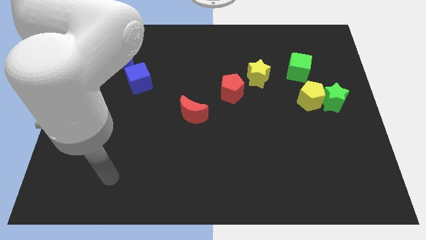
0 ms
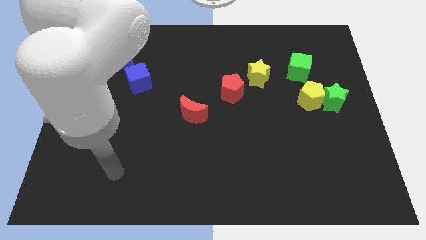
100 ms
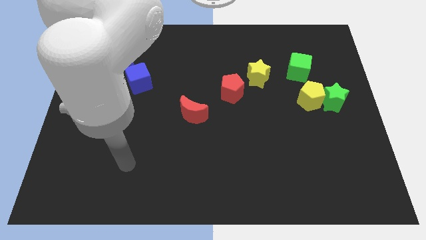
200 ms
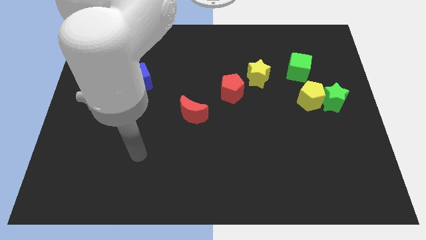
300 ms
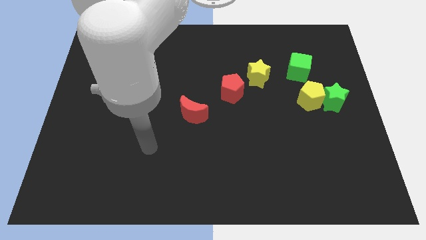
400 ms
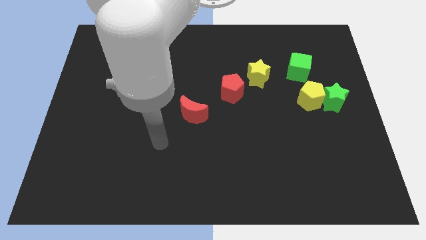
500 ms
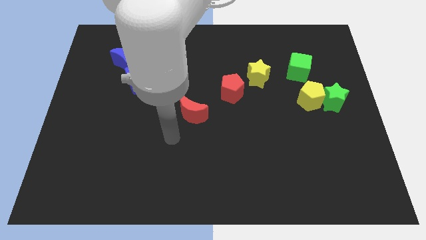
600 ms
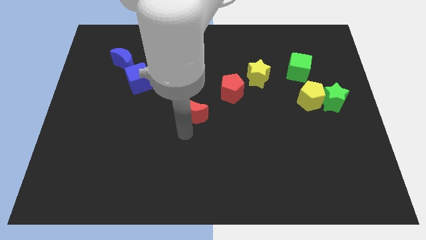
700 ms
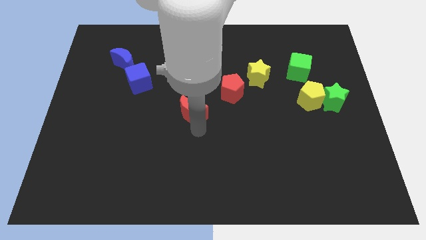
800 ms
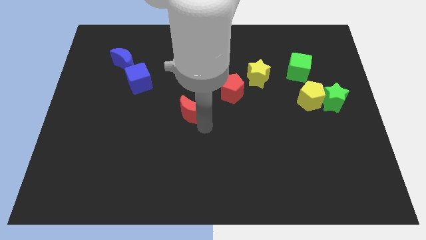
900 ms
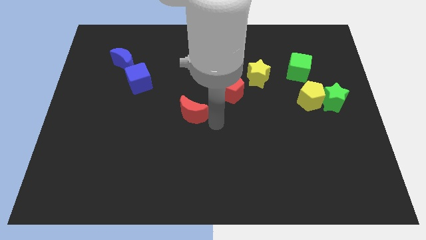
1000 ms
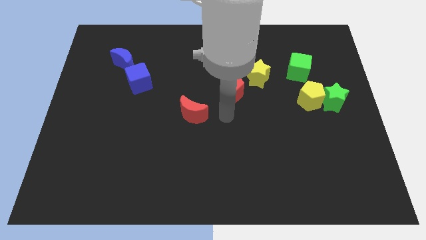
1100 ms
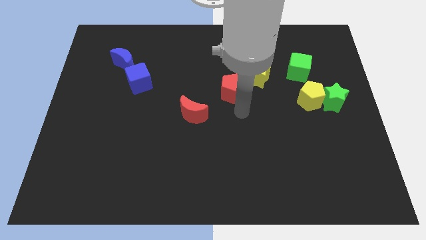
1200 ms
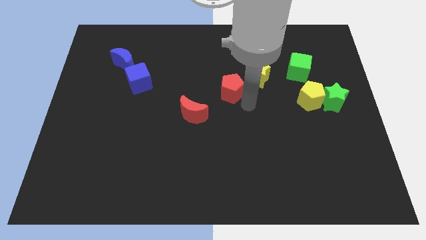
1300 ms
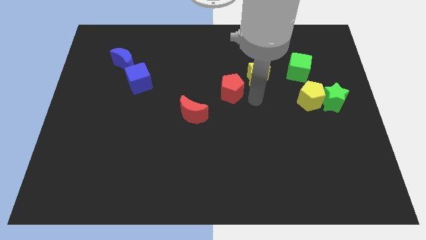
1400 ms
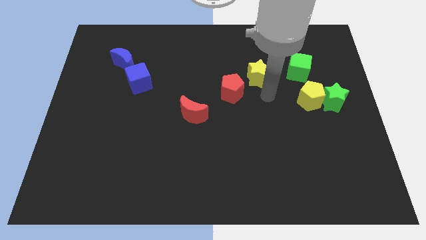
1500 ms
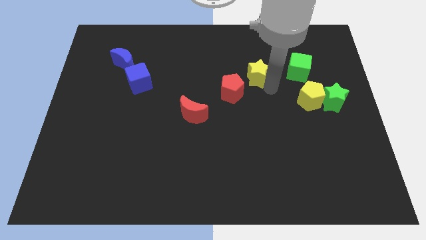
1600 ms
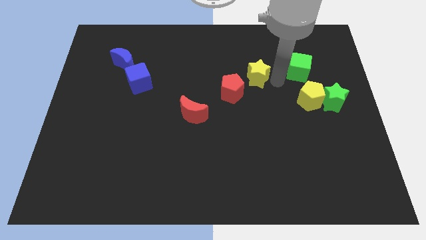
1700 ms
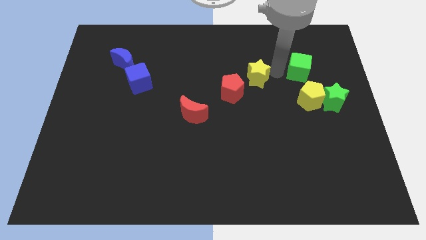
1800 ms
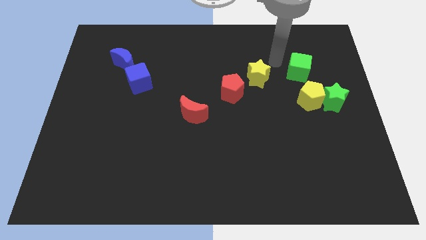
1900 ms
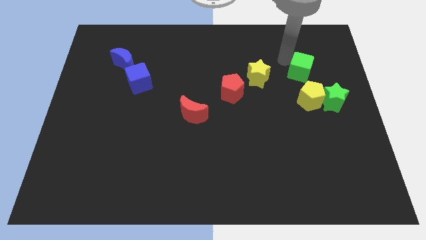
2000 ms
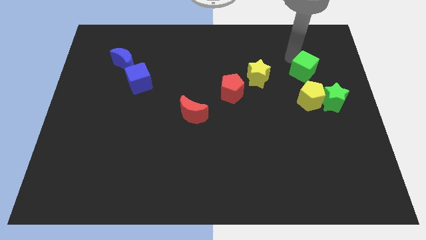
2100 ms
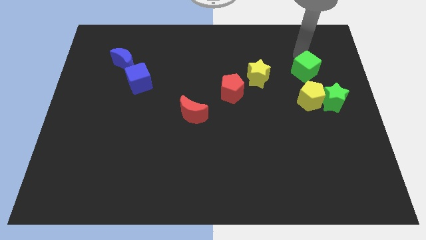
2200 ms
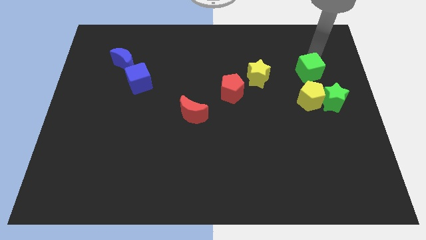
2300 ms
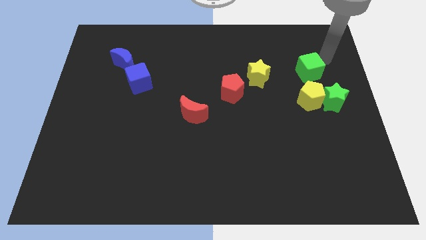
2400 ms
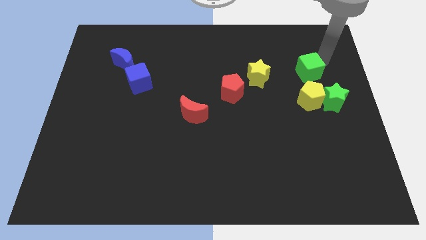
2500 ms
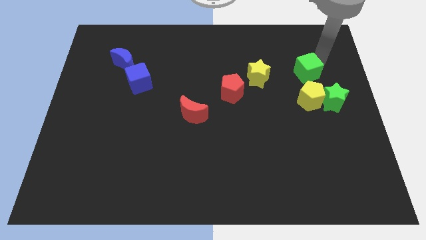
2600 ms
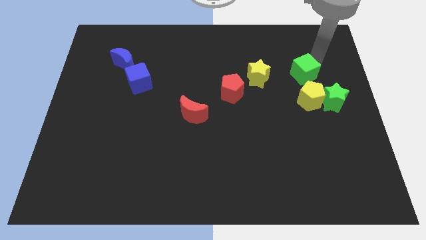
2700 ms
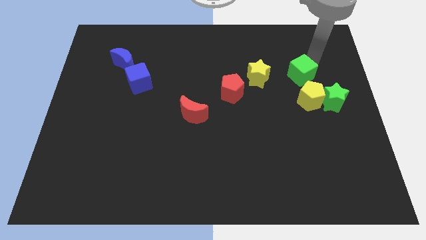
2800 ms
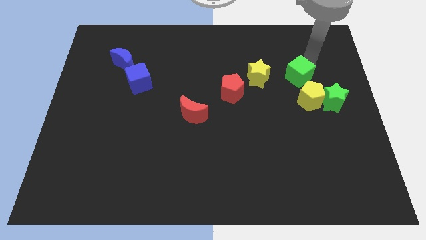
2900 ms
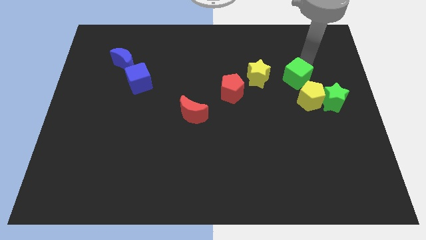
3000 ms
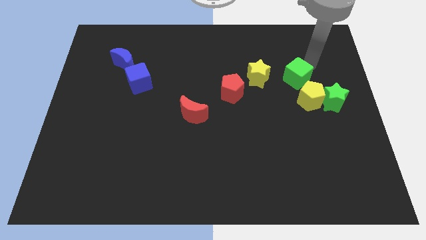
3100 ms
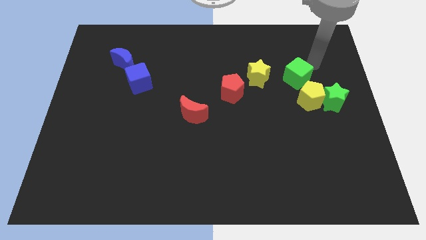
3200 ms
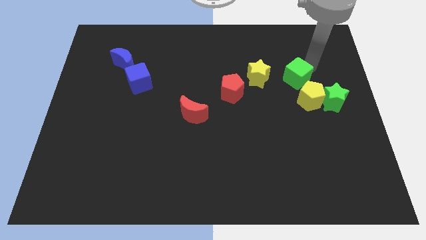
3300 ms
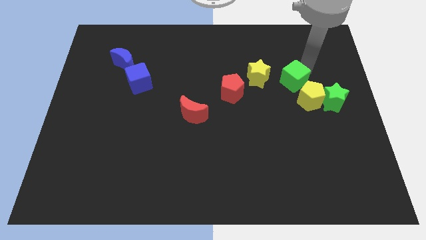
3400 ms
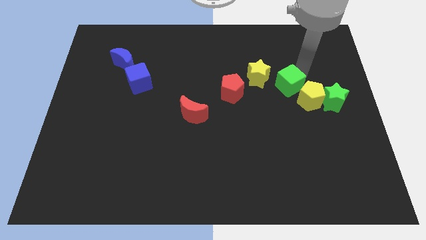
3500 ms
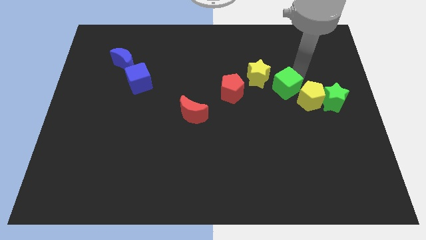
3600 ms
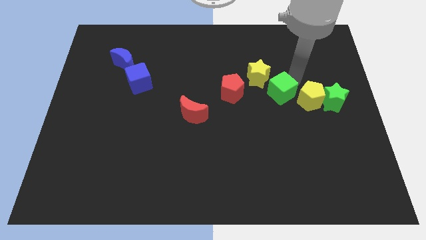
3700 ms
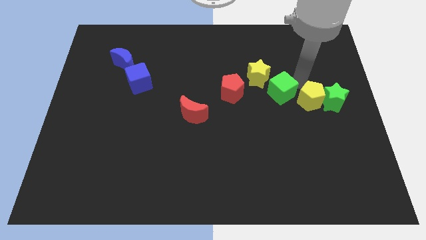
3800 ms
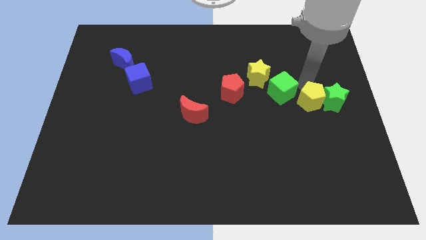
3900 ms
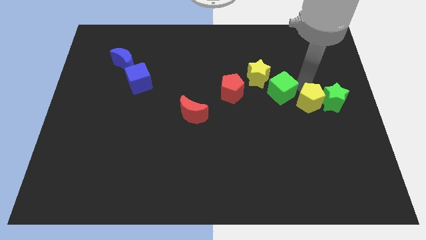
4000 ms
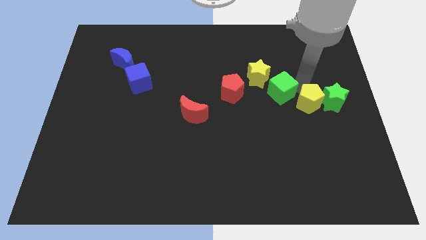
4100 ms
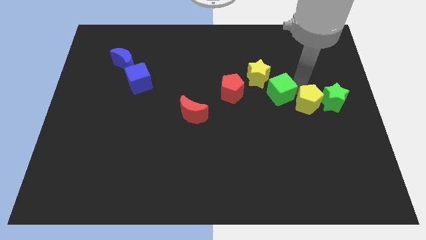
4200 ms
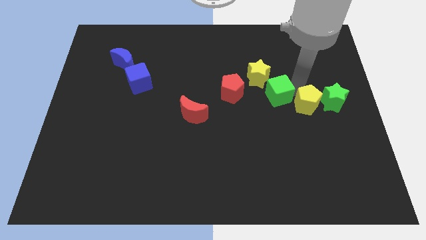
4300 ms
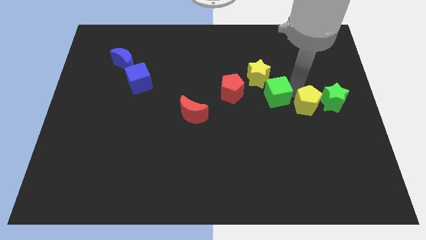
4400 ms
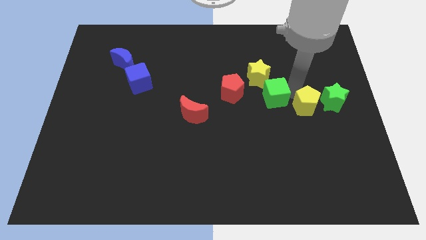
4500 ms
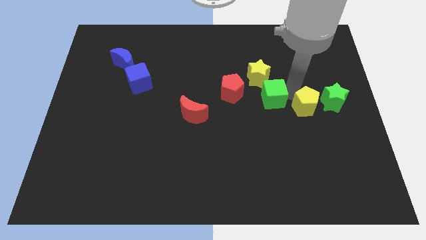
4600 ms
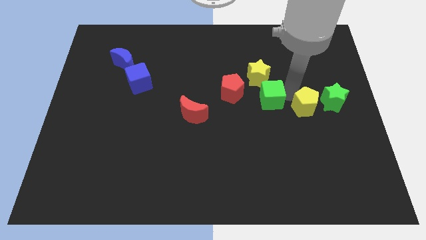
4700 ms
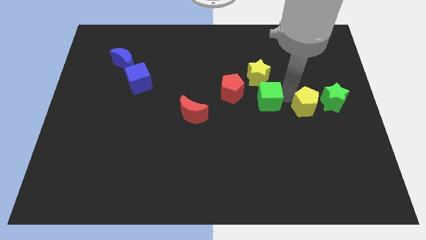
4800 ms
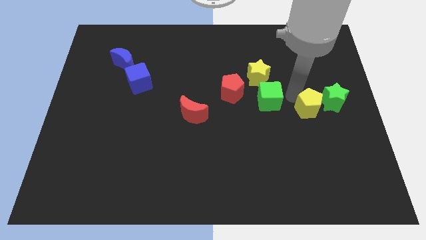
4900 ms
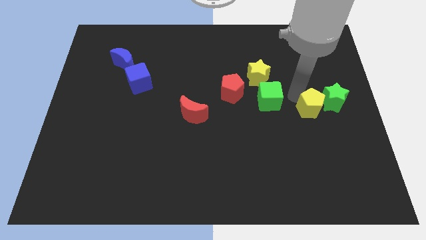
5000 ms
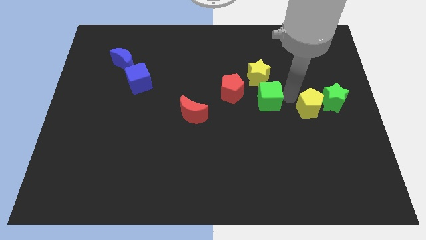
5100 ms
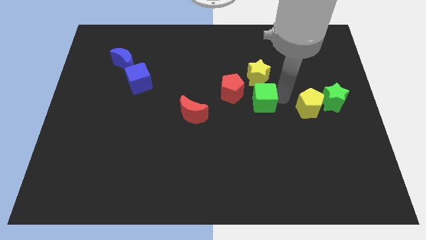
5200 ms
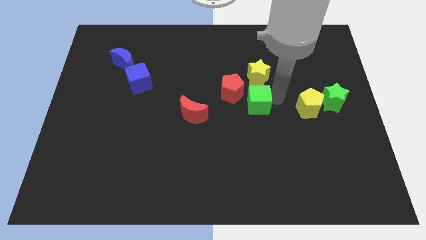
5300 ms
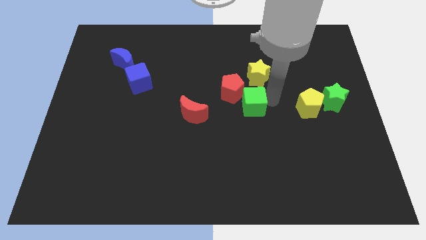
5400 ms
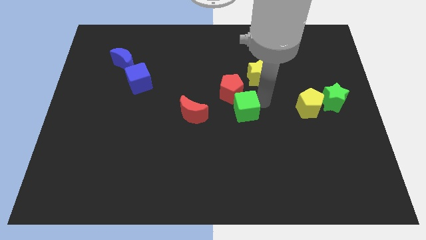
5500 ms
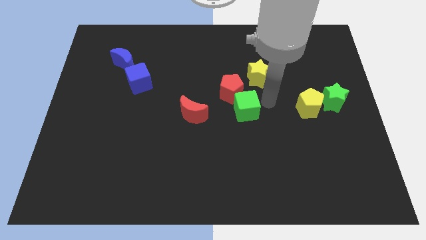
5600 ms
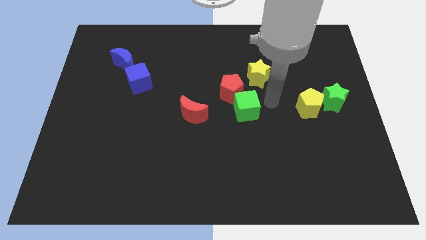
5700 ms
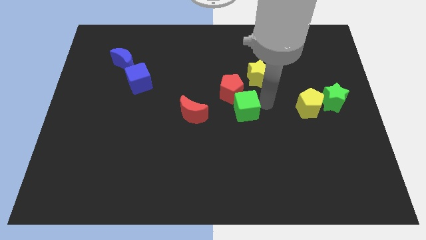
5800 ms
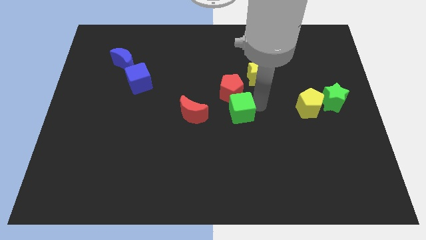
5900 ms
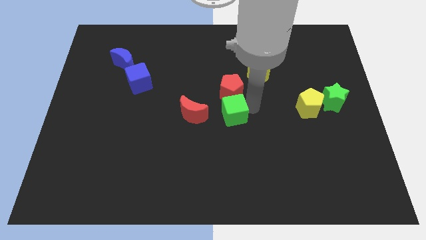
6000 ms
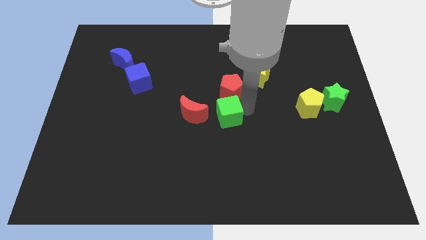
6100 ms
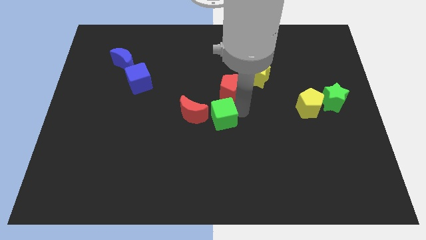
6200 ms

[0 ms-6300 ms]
slide the green cube diagonally down and to the right of the red moon

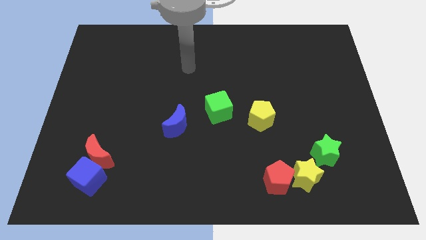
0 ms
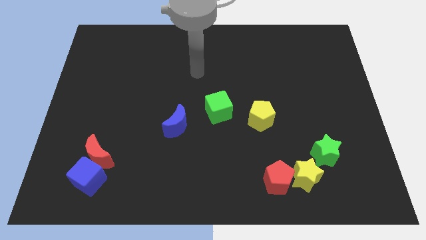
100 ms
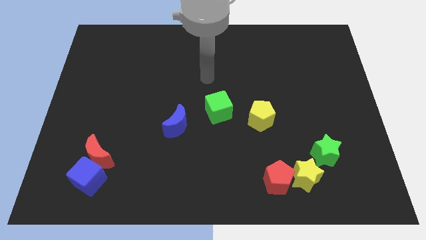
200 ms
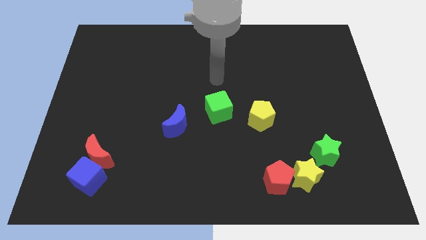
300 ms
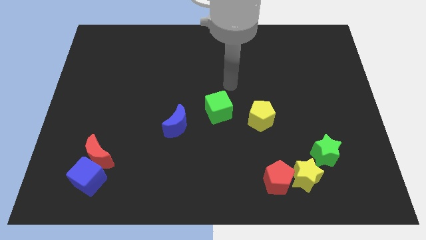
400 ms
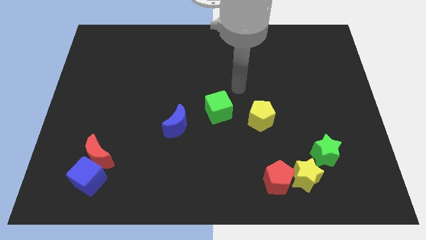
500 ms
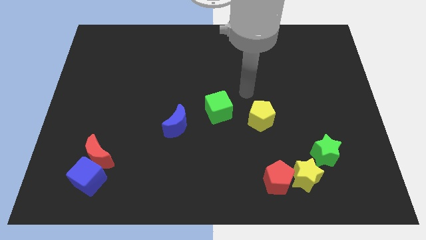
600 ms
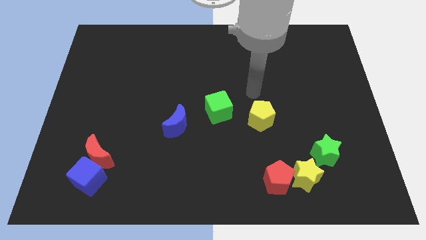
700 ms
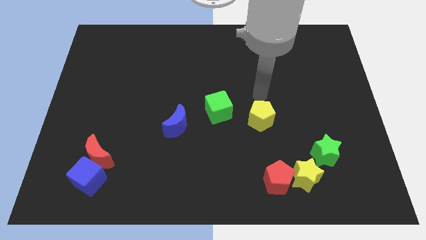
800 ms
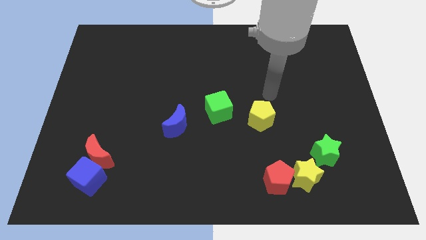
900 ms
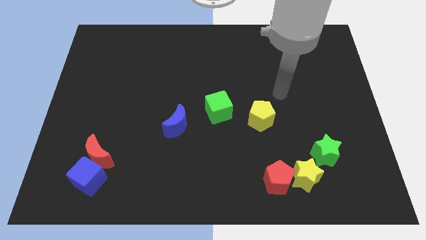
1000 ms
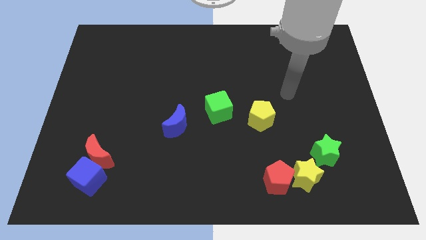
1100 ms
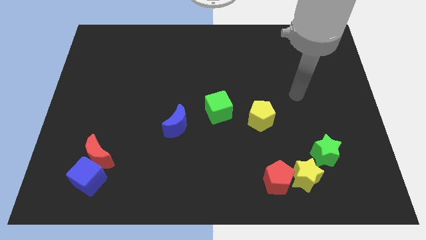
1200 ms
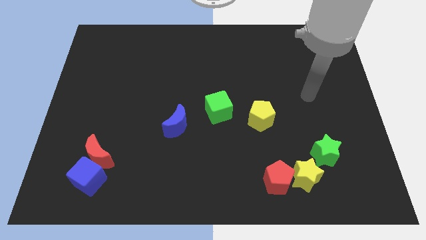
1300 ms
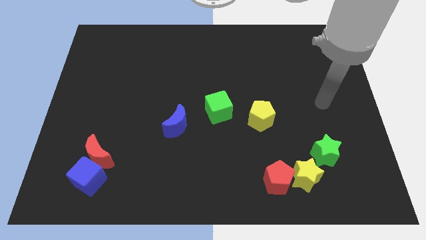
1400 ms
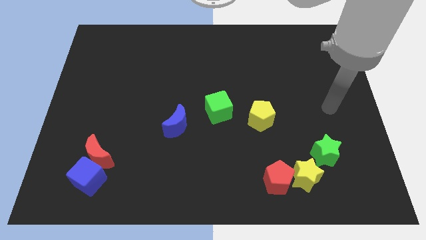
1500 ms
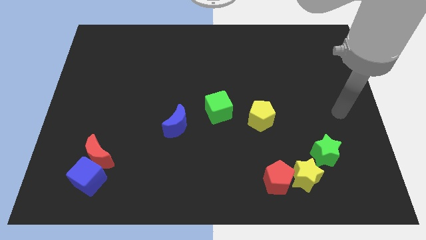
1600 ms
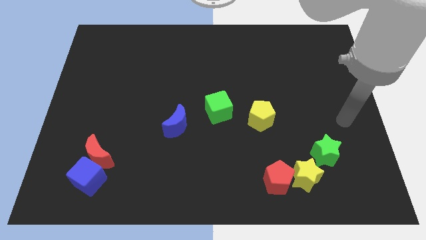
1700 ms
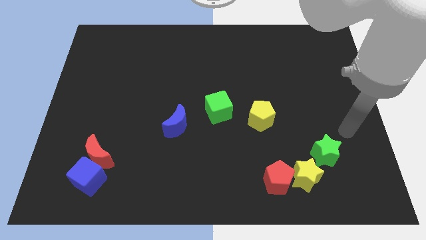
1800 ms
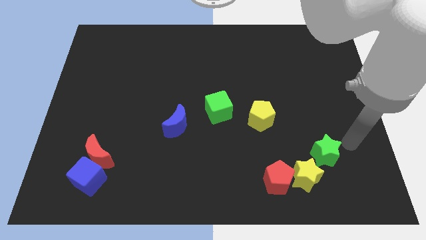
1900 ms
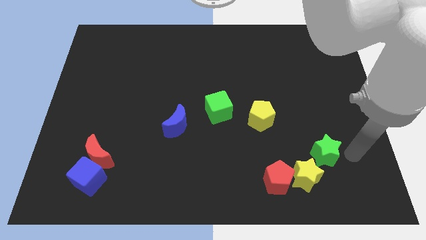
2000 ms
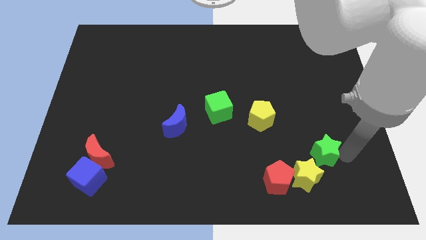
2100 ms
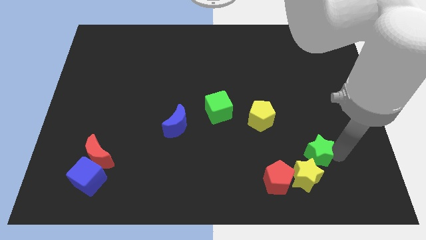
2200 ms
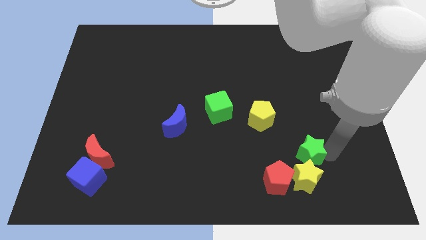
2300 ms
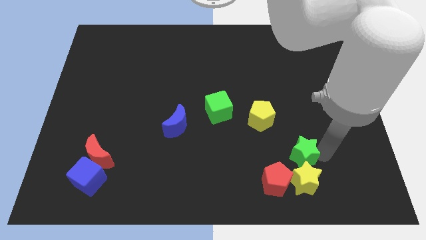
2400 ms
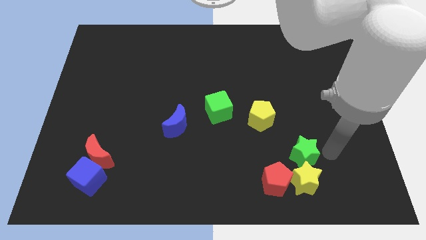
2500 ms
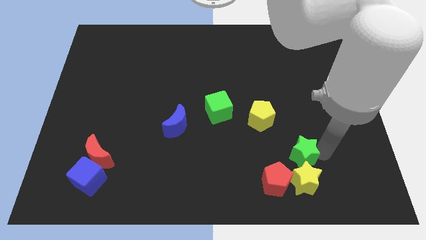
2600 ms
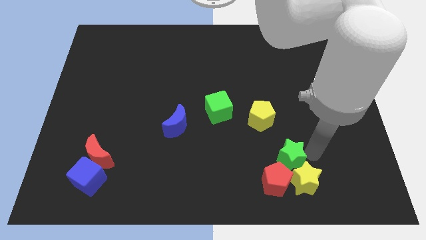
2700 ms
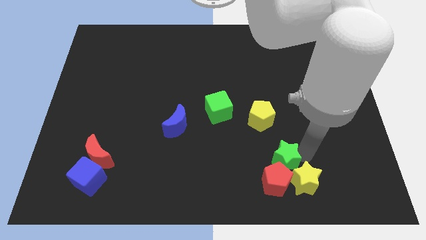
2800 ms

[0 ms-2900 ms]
push the green star below the yellow pentagon
